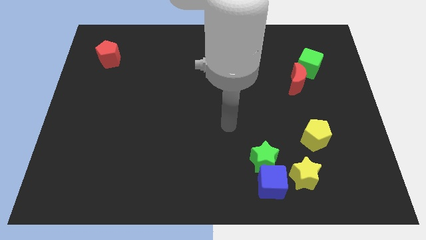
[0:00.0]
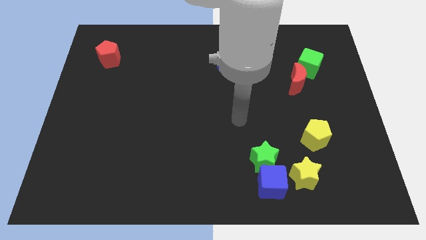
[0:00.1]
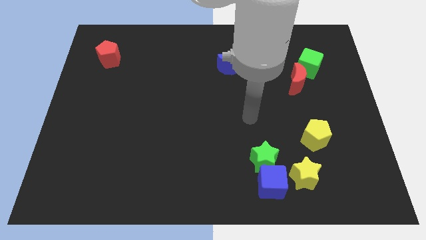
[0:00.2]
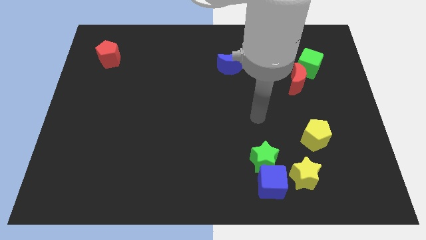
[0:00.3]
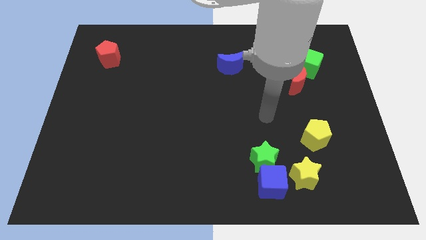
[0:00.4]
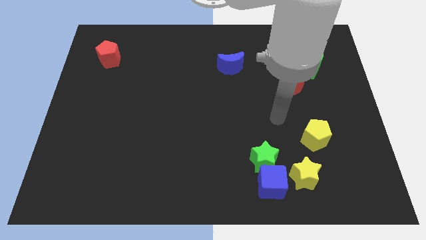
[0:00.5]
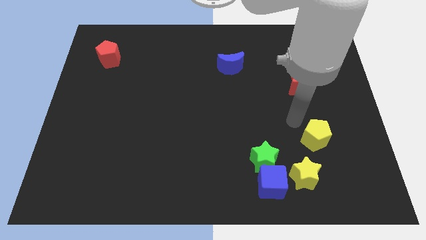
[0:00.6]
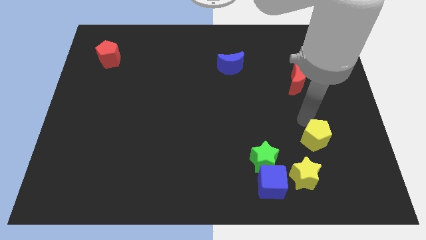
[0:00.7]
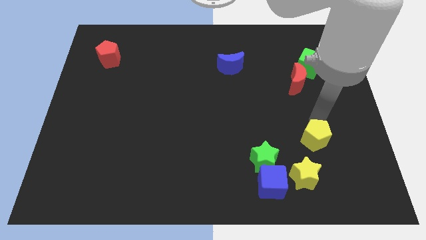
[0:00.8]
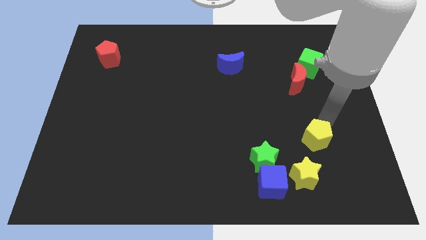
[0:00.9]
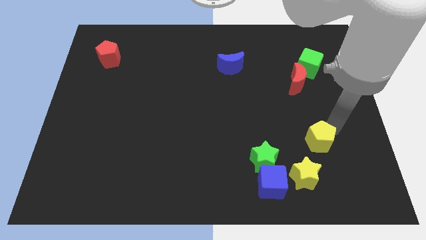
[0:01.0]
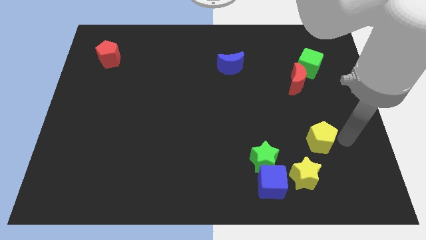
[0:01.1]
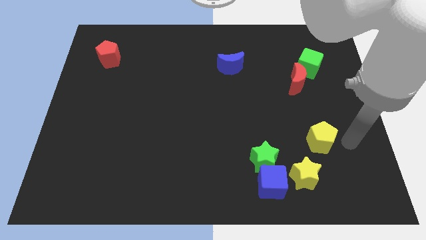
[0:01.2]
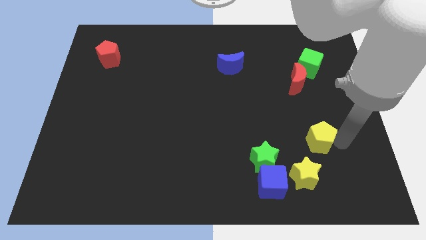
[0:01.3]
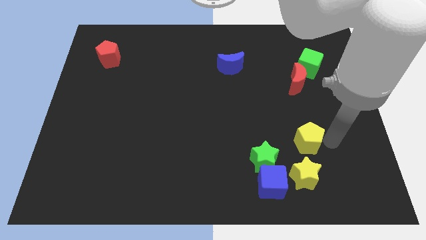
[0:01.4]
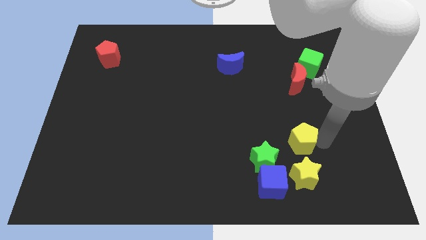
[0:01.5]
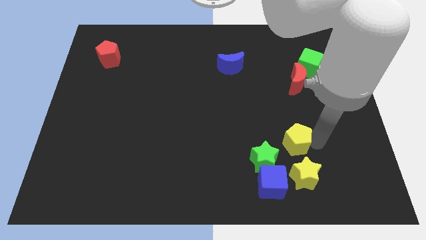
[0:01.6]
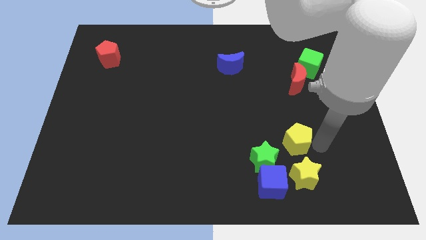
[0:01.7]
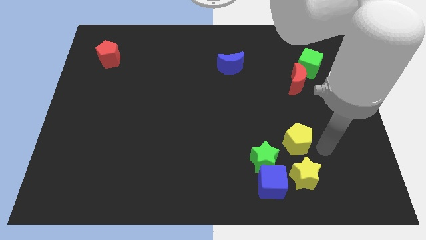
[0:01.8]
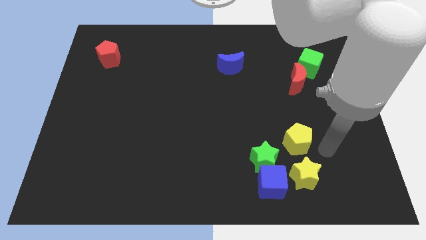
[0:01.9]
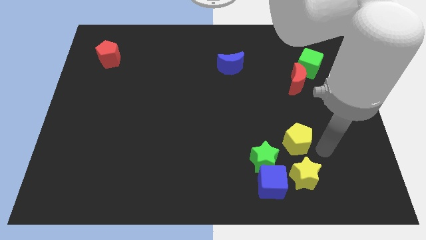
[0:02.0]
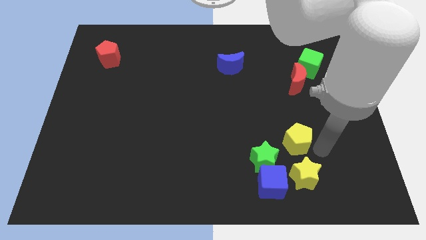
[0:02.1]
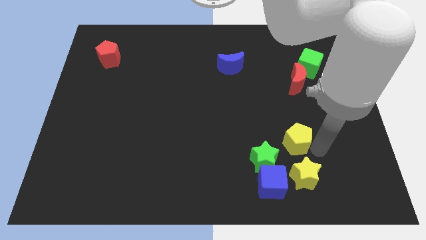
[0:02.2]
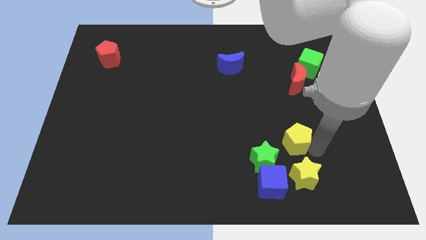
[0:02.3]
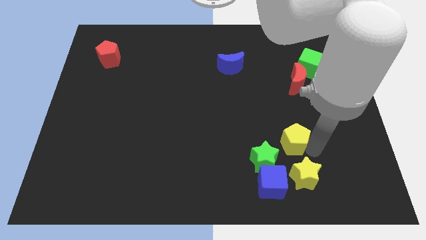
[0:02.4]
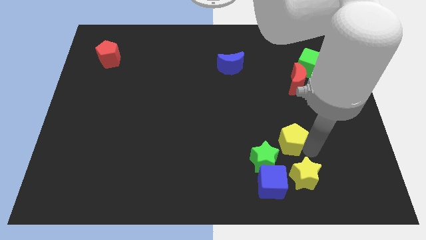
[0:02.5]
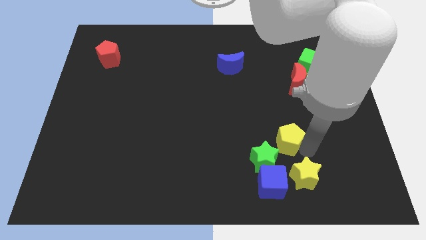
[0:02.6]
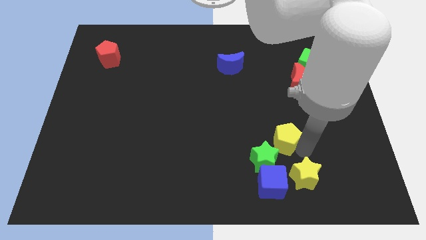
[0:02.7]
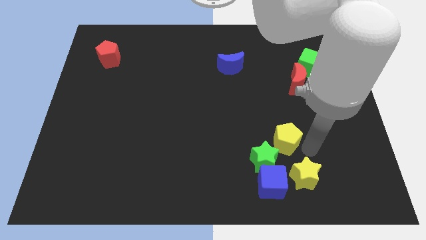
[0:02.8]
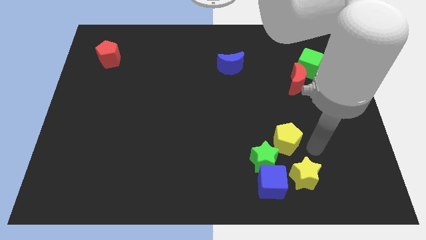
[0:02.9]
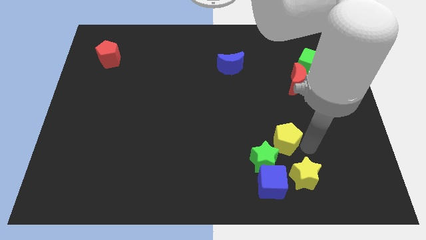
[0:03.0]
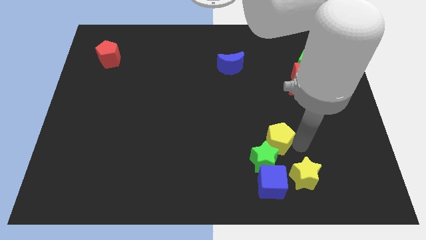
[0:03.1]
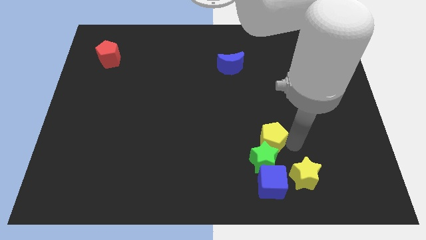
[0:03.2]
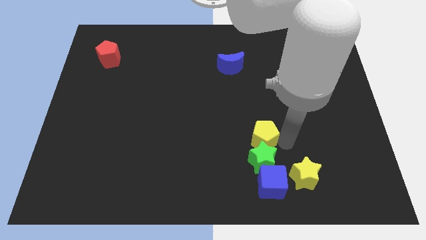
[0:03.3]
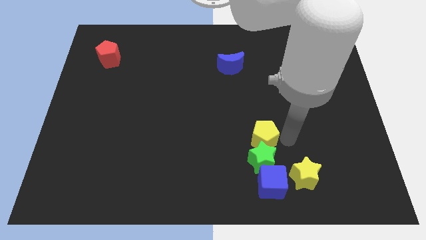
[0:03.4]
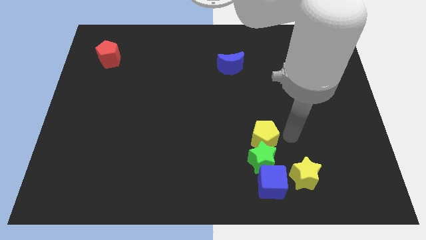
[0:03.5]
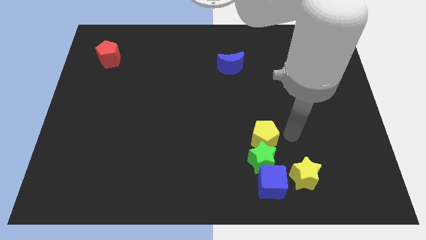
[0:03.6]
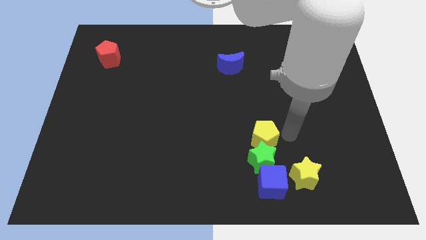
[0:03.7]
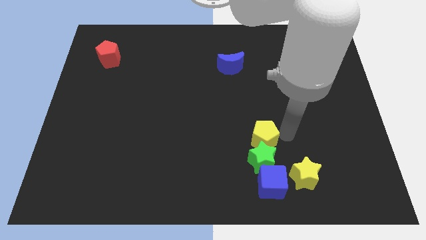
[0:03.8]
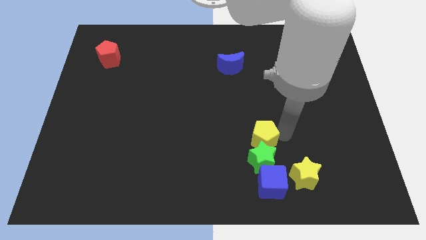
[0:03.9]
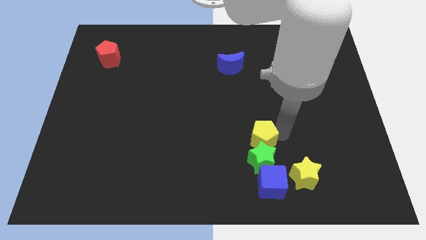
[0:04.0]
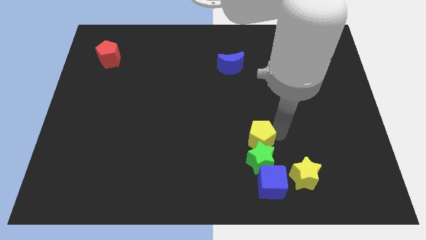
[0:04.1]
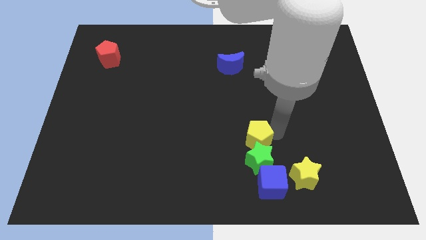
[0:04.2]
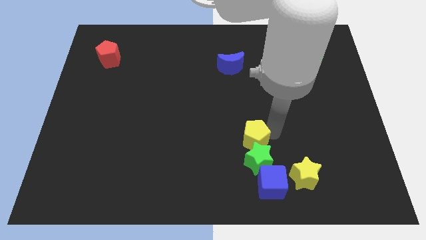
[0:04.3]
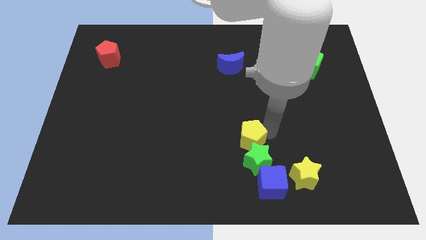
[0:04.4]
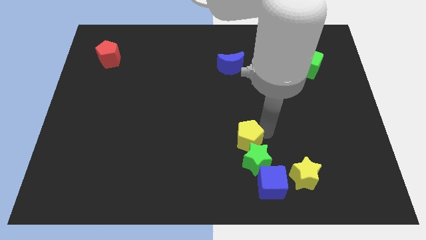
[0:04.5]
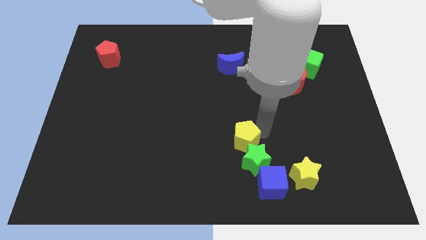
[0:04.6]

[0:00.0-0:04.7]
put the yellow pentagon to the top left of the blue cube

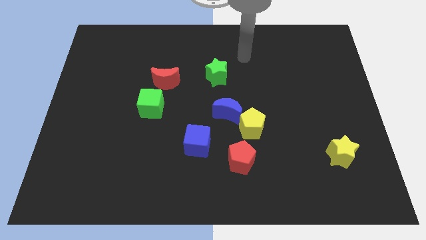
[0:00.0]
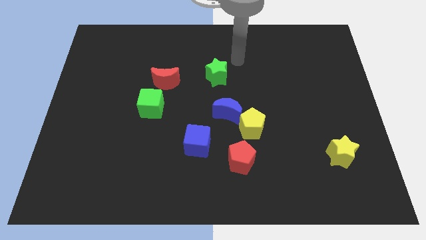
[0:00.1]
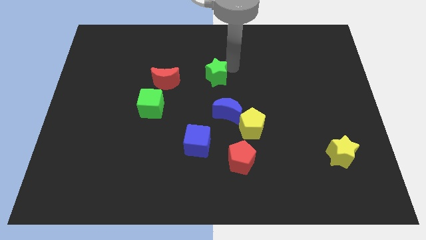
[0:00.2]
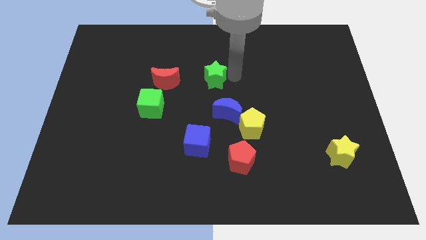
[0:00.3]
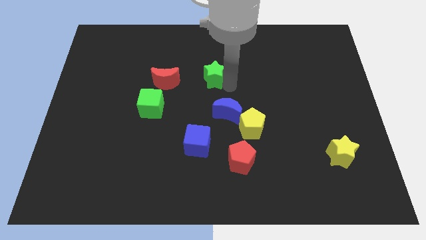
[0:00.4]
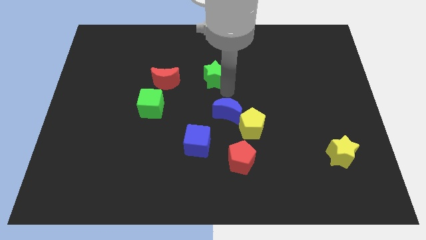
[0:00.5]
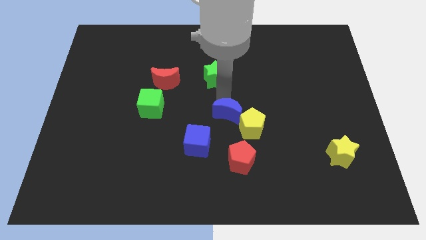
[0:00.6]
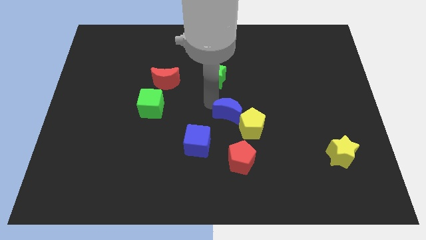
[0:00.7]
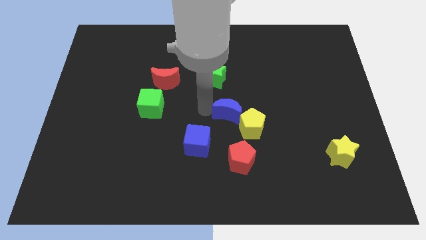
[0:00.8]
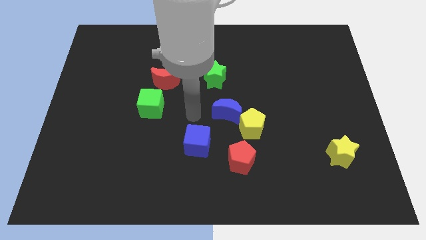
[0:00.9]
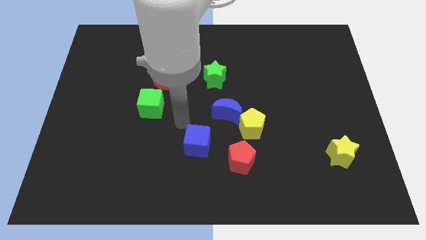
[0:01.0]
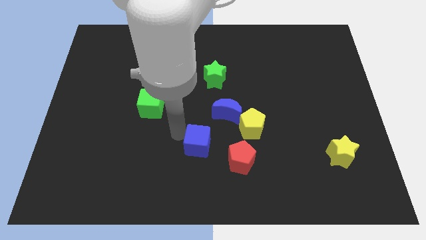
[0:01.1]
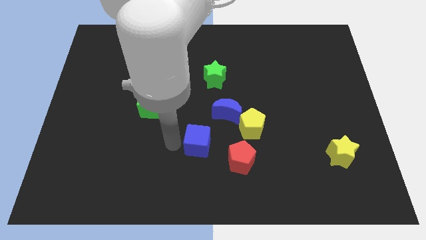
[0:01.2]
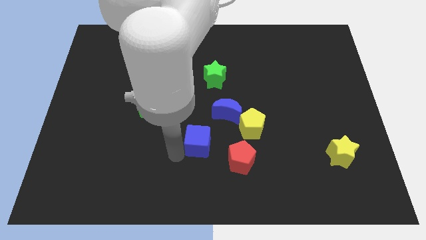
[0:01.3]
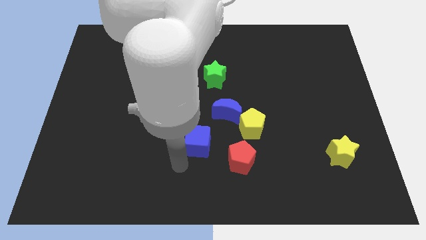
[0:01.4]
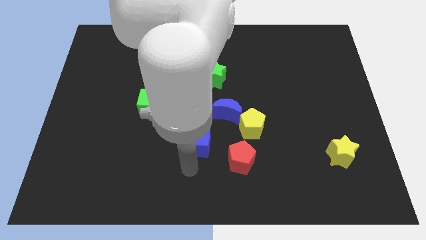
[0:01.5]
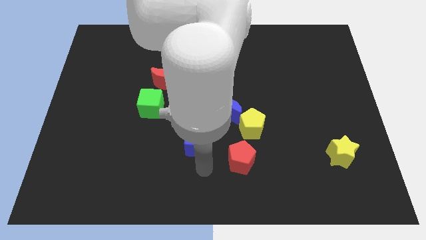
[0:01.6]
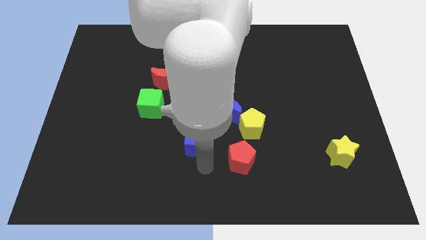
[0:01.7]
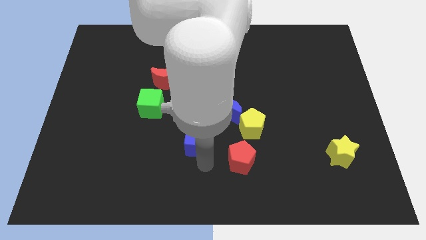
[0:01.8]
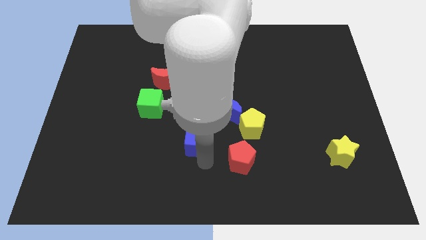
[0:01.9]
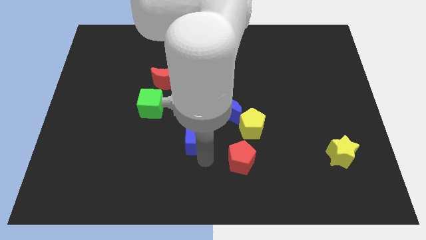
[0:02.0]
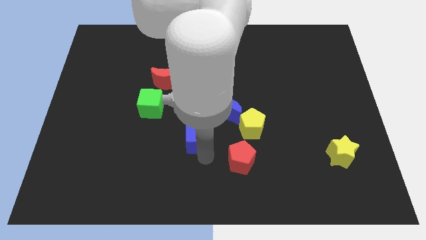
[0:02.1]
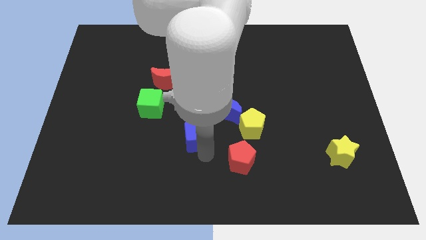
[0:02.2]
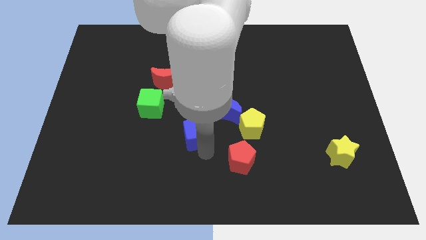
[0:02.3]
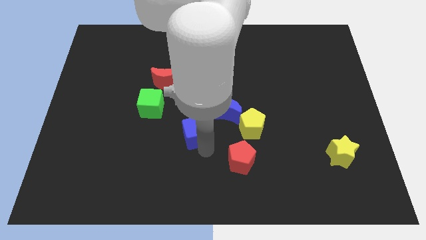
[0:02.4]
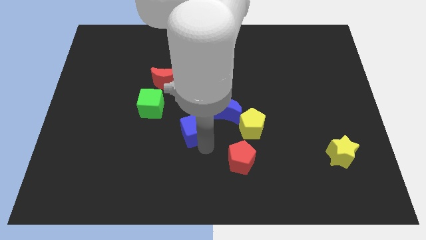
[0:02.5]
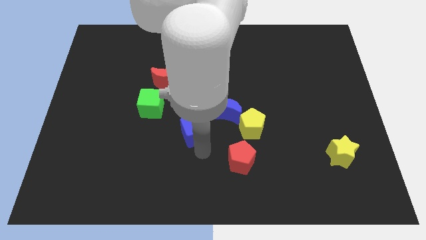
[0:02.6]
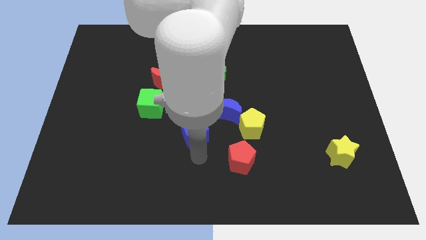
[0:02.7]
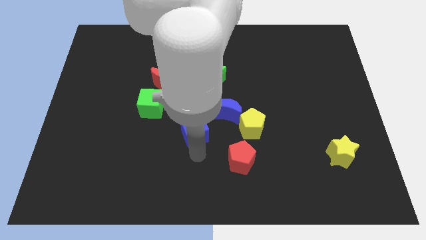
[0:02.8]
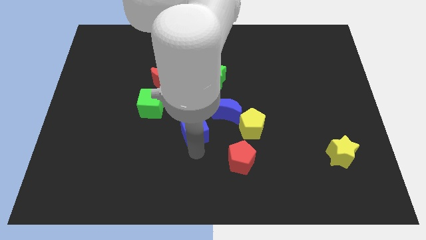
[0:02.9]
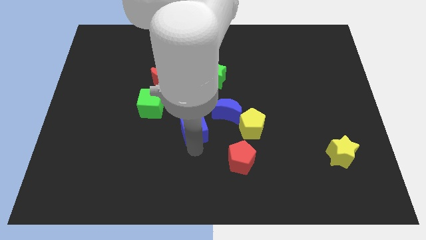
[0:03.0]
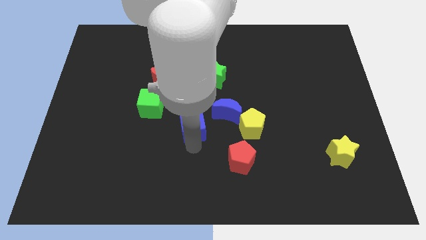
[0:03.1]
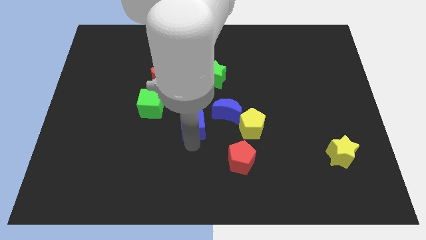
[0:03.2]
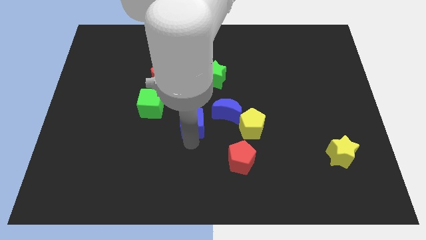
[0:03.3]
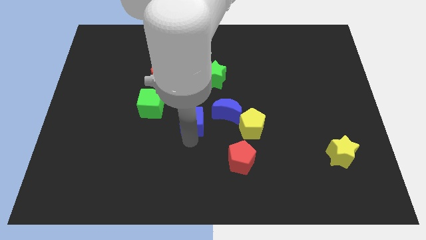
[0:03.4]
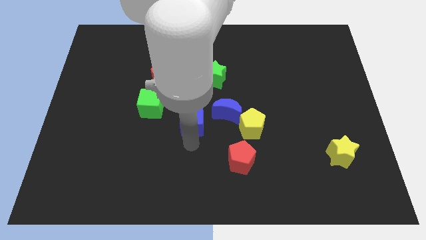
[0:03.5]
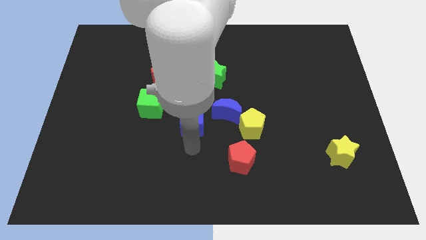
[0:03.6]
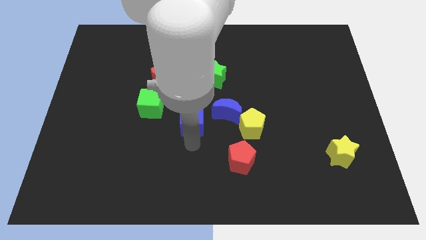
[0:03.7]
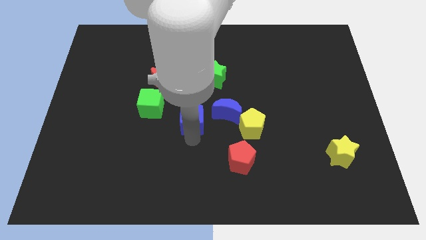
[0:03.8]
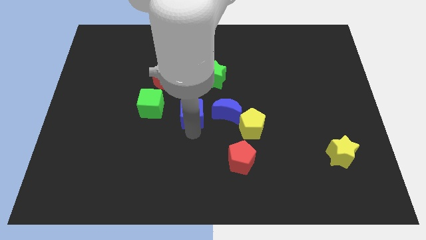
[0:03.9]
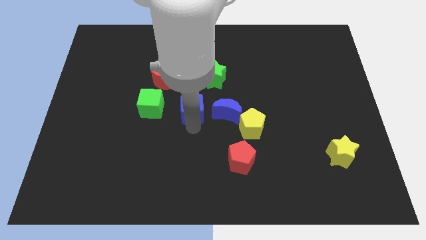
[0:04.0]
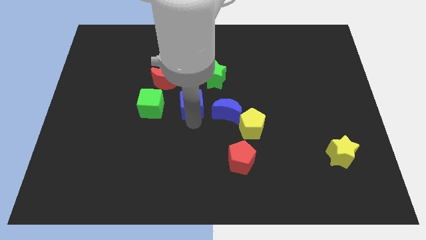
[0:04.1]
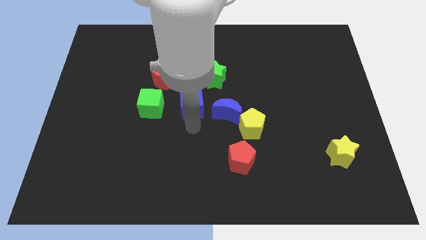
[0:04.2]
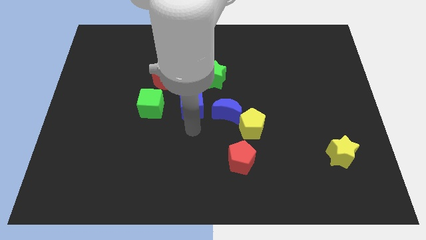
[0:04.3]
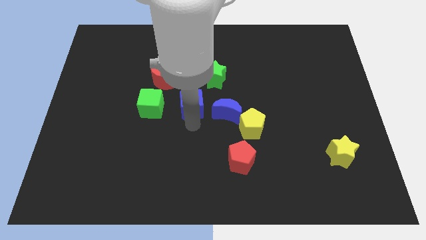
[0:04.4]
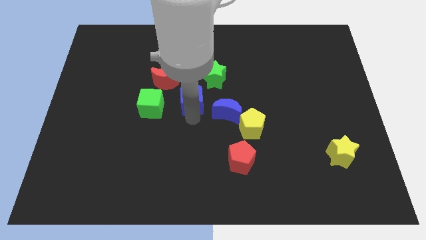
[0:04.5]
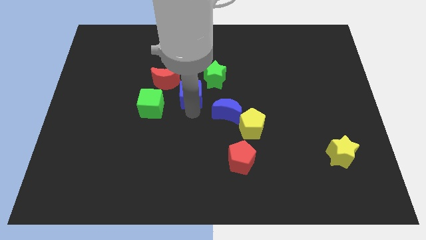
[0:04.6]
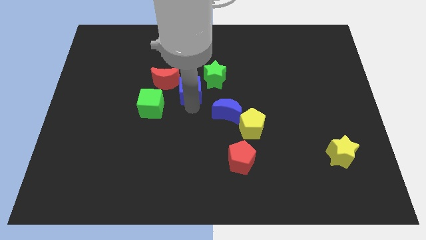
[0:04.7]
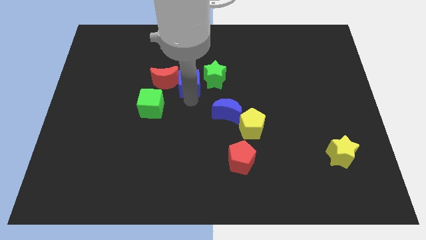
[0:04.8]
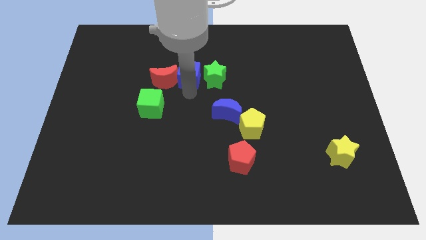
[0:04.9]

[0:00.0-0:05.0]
move the blue cube to the top left side of the green star
